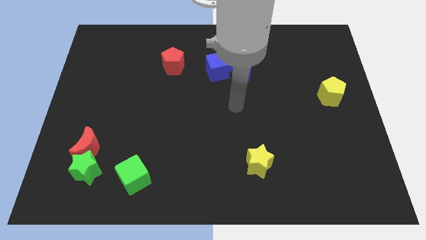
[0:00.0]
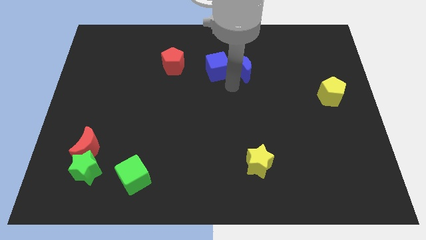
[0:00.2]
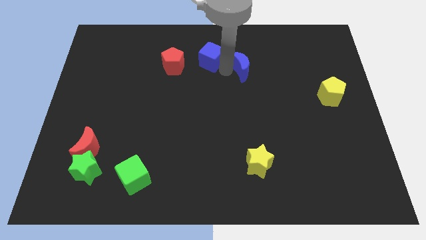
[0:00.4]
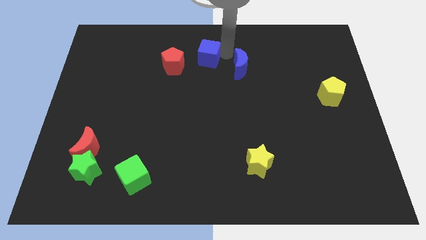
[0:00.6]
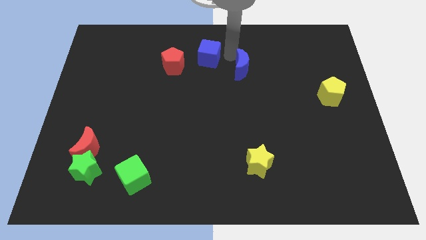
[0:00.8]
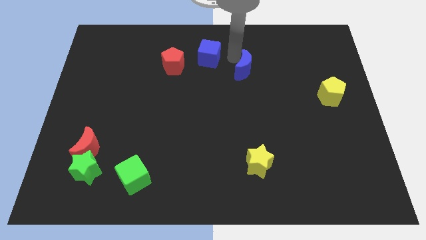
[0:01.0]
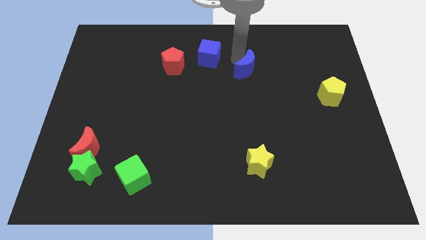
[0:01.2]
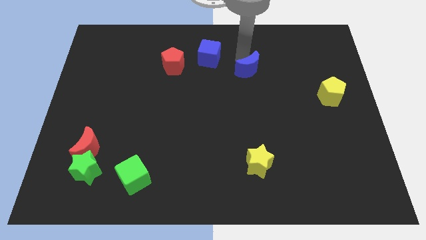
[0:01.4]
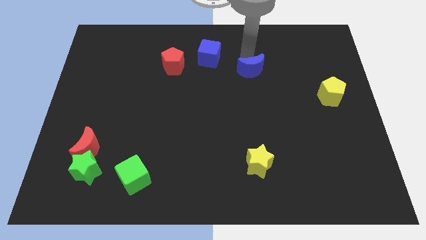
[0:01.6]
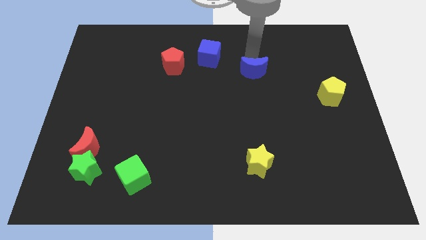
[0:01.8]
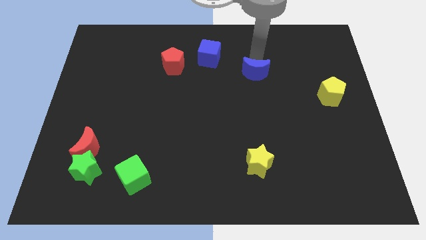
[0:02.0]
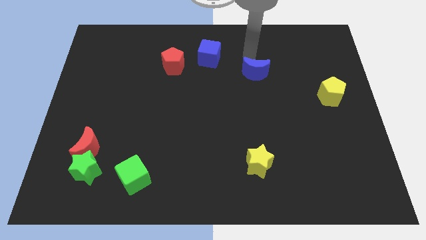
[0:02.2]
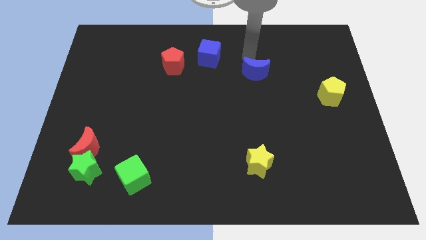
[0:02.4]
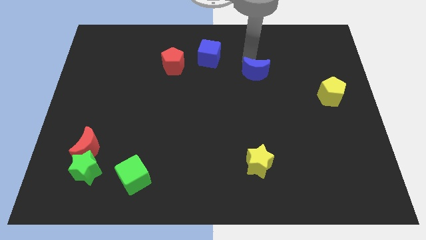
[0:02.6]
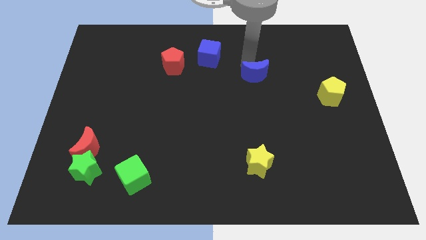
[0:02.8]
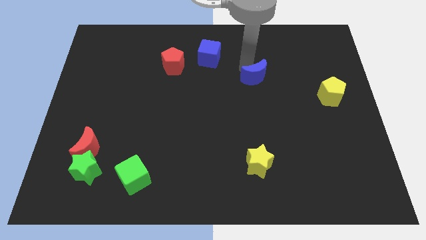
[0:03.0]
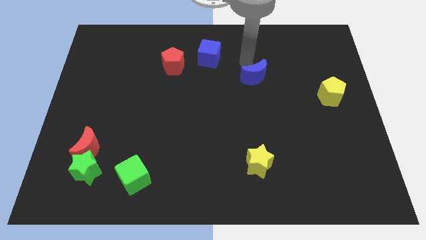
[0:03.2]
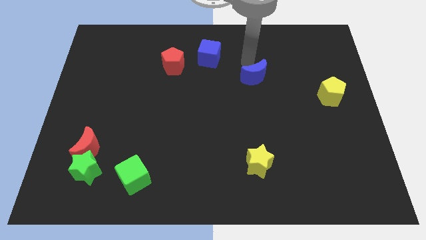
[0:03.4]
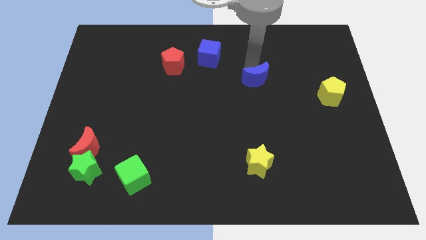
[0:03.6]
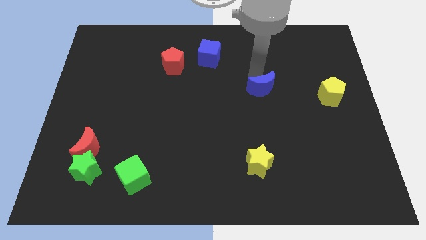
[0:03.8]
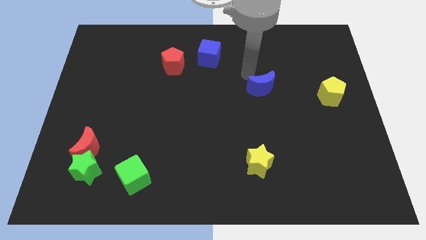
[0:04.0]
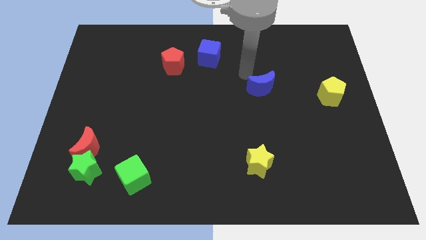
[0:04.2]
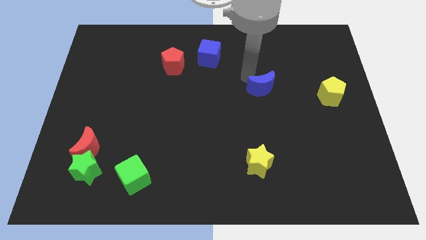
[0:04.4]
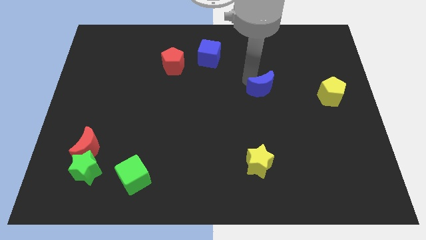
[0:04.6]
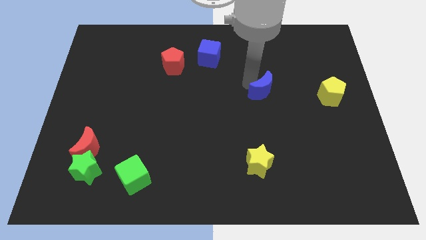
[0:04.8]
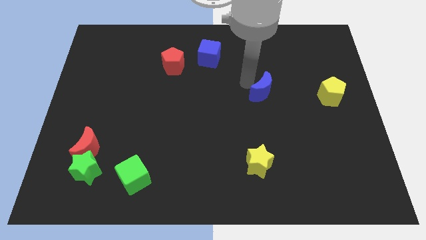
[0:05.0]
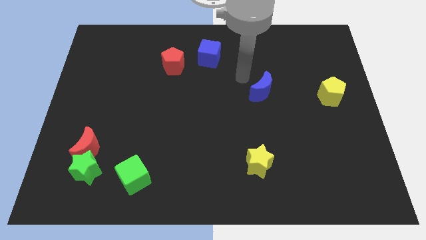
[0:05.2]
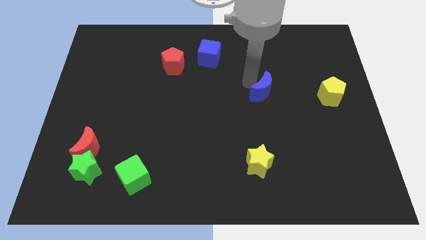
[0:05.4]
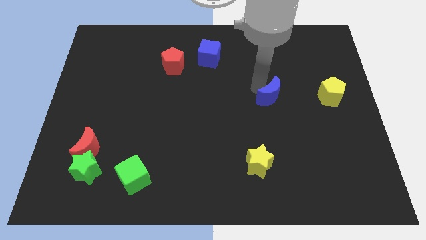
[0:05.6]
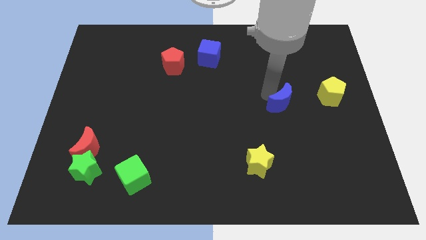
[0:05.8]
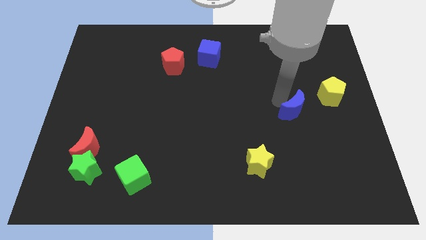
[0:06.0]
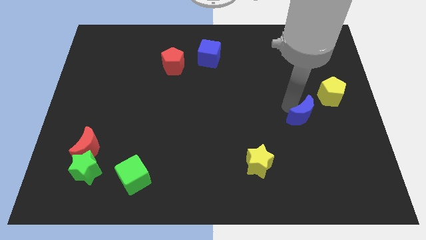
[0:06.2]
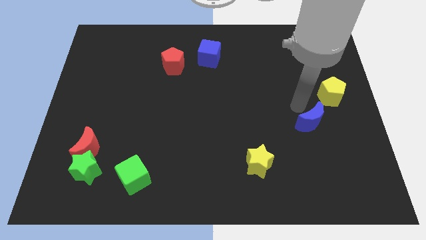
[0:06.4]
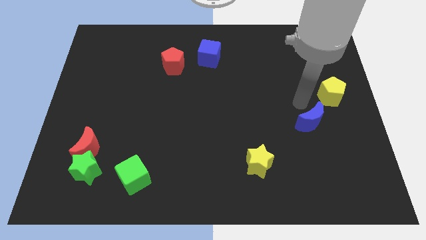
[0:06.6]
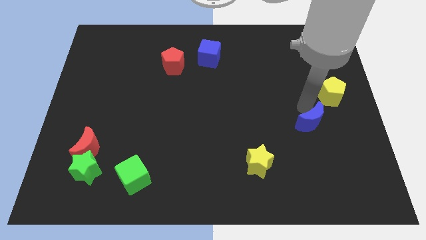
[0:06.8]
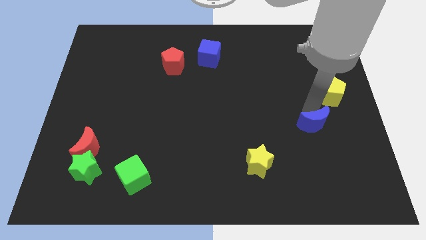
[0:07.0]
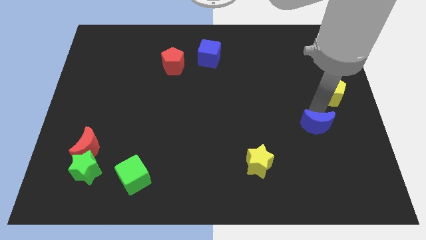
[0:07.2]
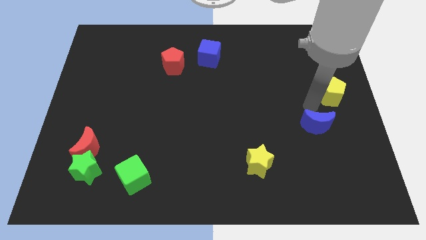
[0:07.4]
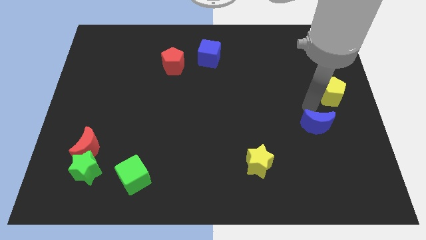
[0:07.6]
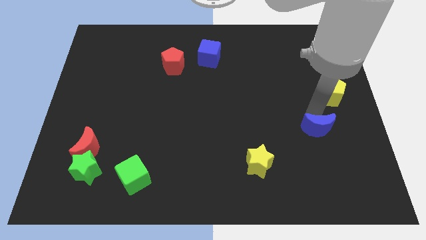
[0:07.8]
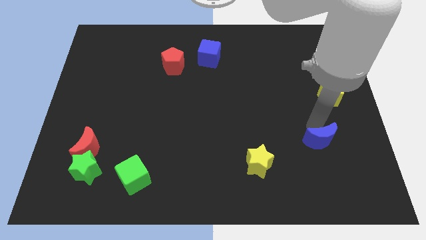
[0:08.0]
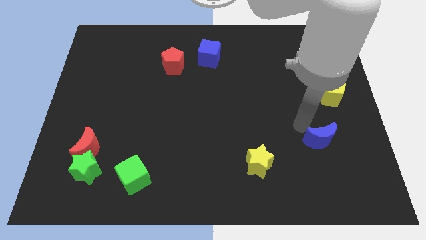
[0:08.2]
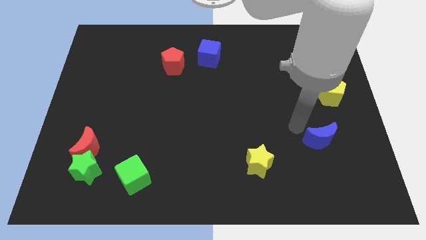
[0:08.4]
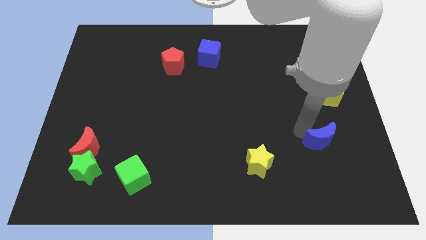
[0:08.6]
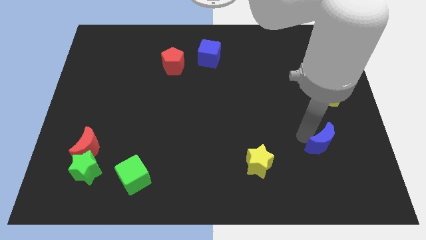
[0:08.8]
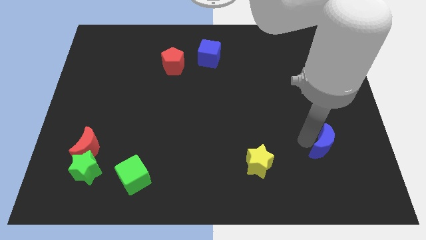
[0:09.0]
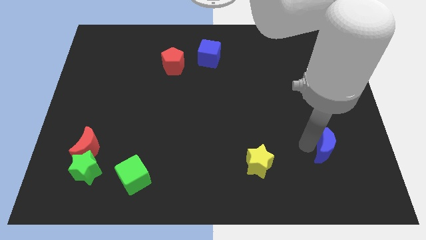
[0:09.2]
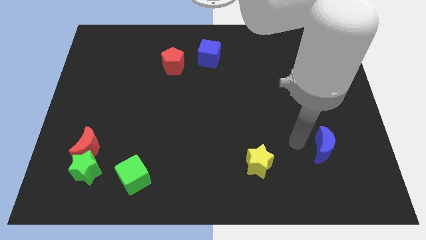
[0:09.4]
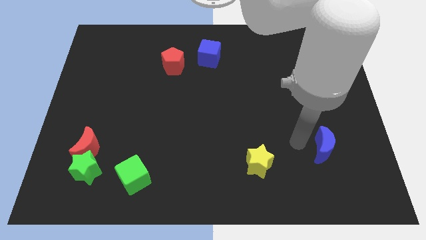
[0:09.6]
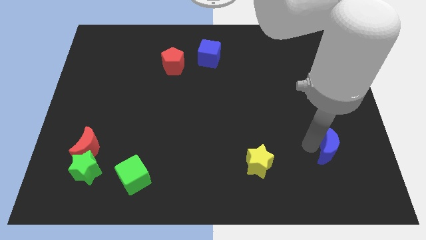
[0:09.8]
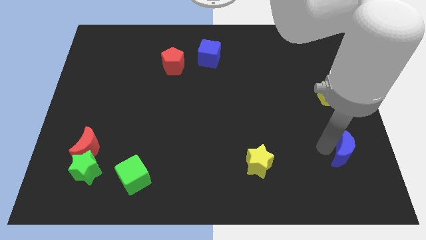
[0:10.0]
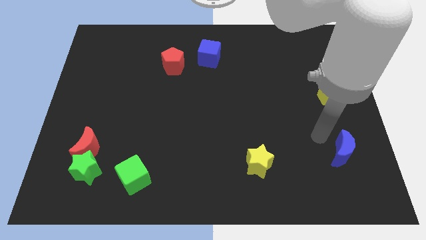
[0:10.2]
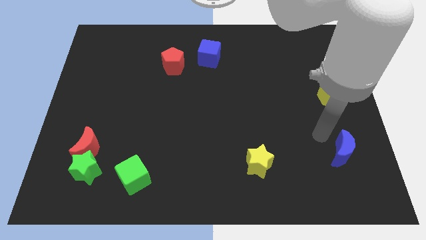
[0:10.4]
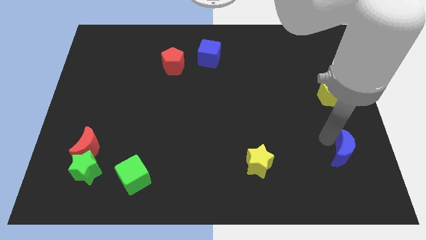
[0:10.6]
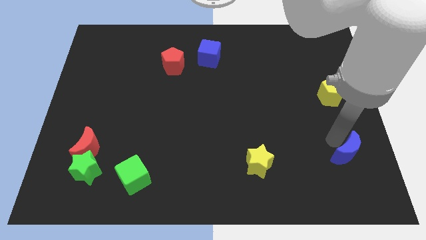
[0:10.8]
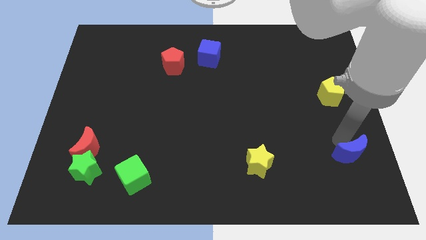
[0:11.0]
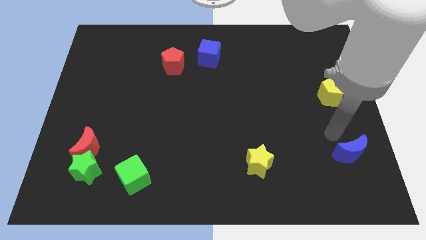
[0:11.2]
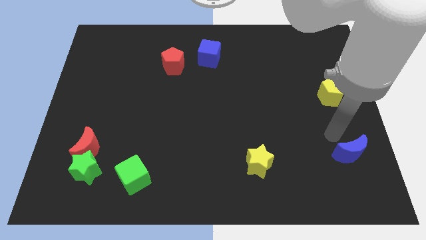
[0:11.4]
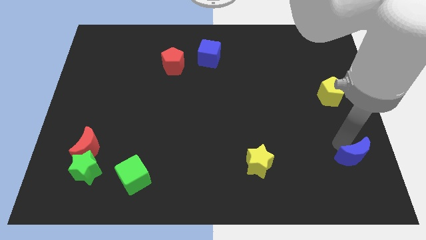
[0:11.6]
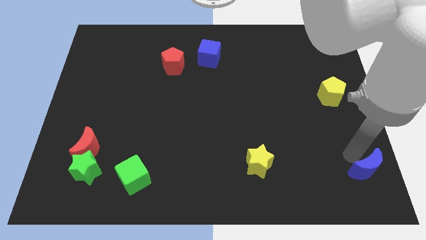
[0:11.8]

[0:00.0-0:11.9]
push the blue moon to the bottom right

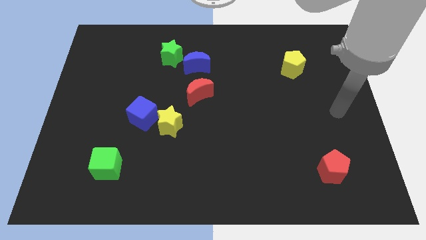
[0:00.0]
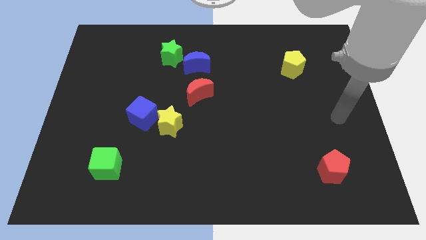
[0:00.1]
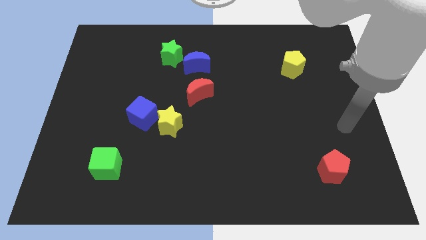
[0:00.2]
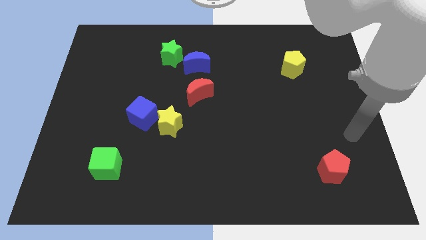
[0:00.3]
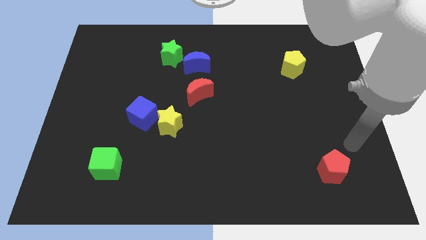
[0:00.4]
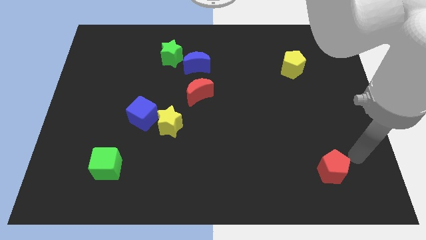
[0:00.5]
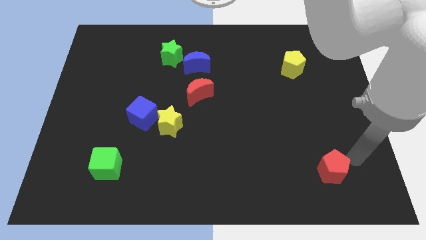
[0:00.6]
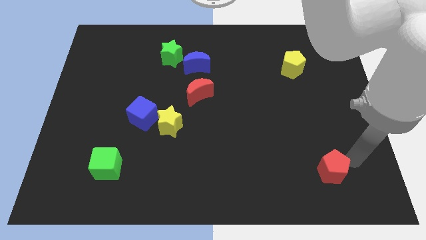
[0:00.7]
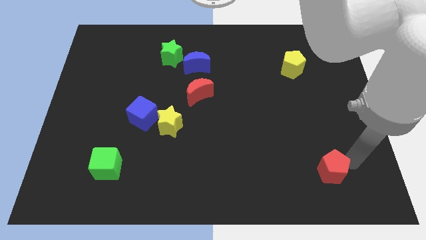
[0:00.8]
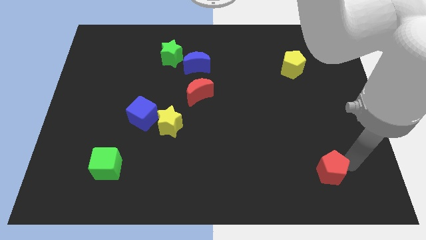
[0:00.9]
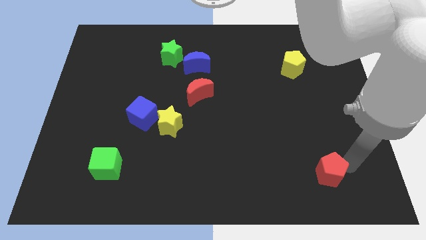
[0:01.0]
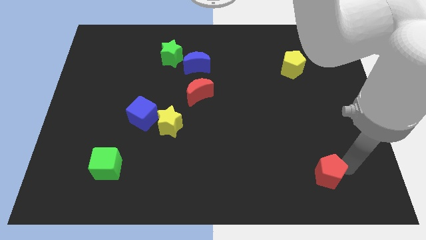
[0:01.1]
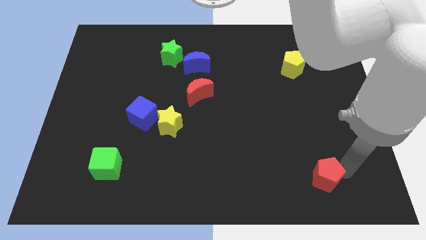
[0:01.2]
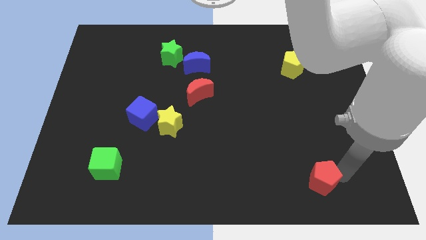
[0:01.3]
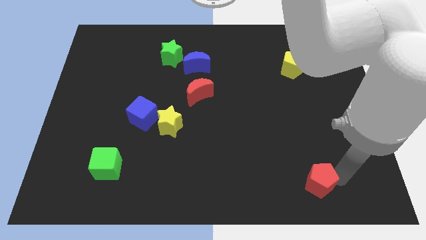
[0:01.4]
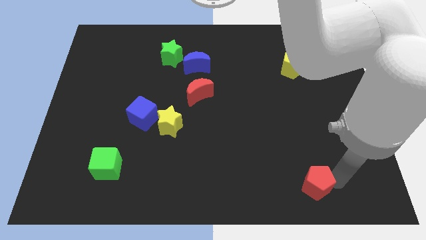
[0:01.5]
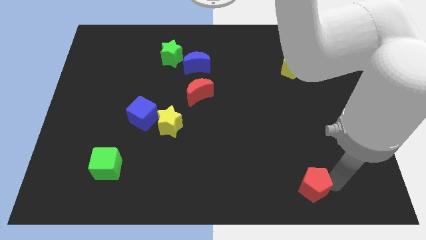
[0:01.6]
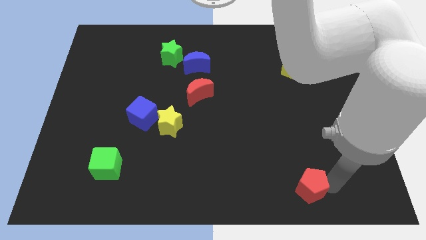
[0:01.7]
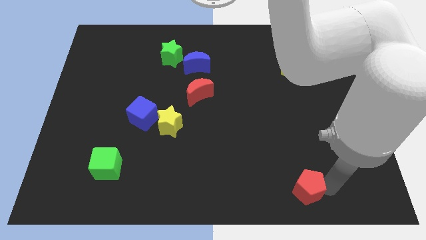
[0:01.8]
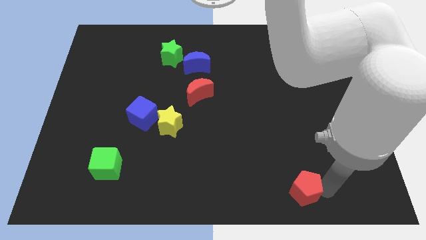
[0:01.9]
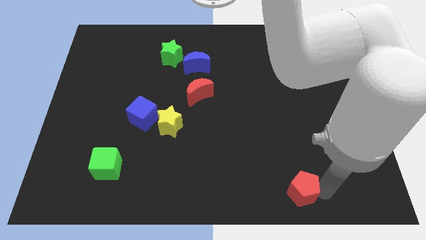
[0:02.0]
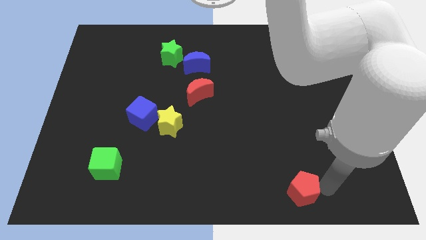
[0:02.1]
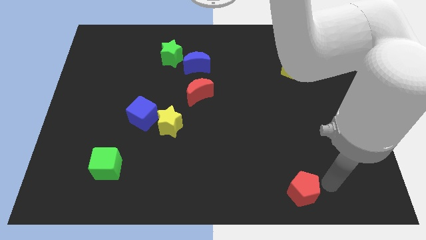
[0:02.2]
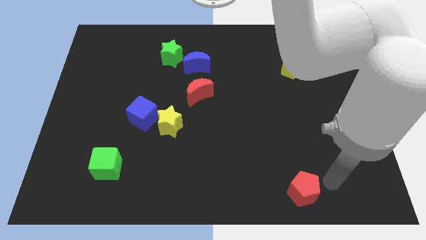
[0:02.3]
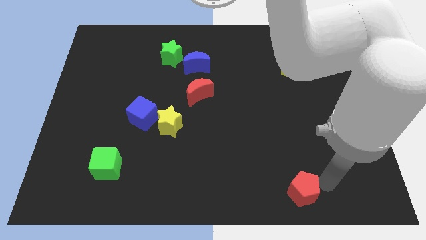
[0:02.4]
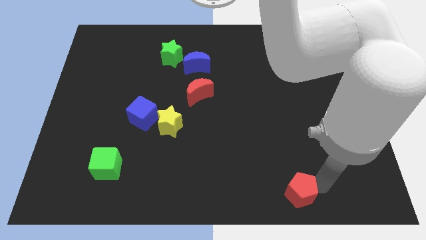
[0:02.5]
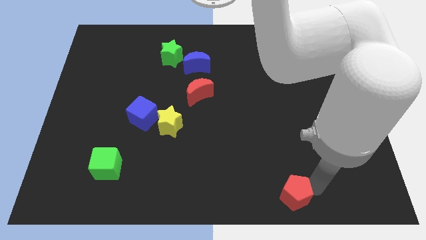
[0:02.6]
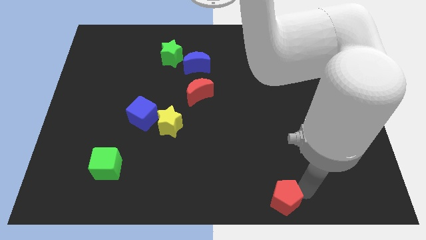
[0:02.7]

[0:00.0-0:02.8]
move the red pentagon to the bottom
